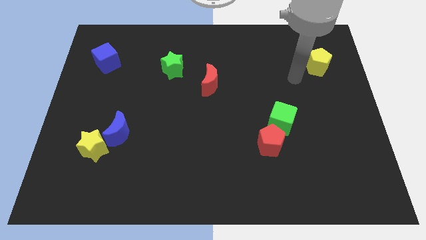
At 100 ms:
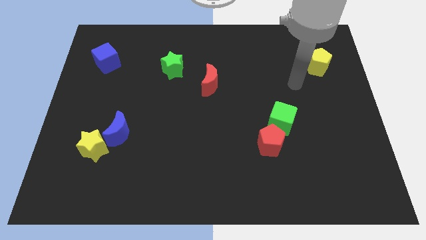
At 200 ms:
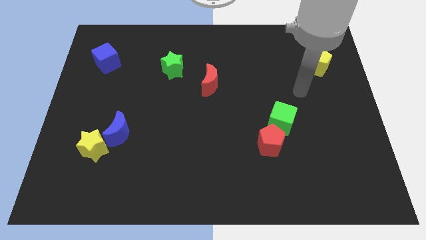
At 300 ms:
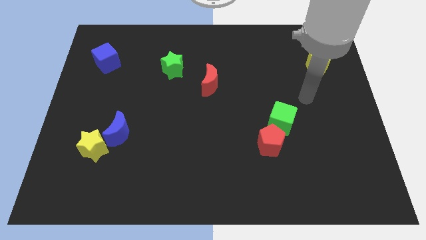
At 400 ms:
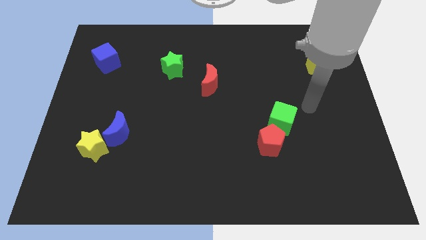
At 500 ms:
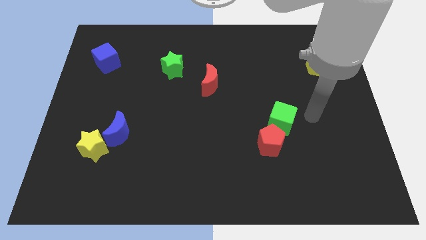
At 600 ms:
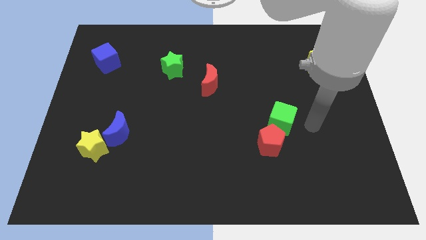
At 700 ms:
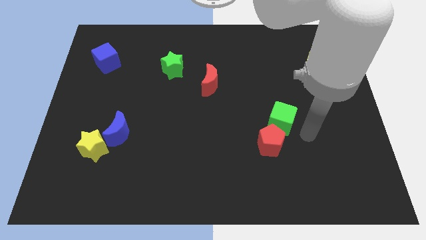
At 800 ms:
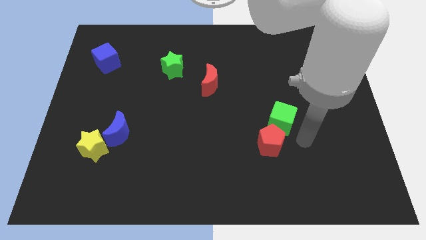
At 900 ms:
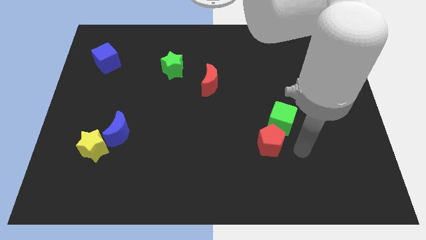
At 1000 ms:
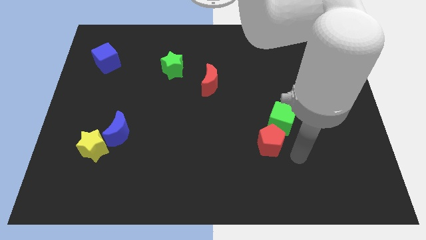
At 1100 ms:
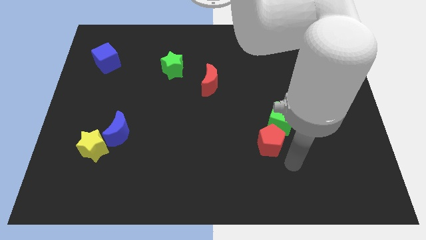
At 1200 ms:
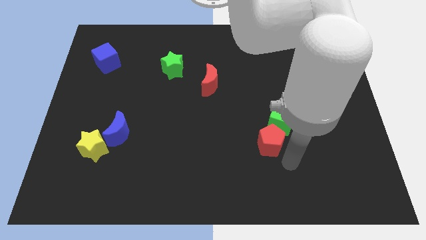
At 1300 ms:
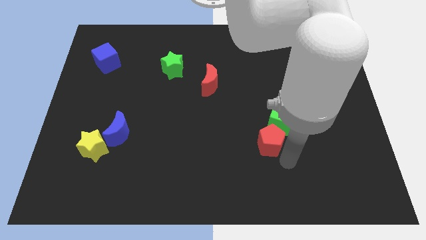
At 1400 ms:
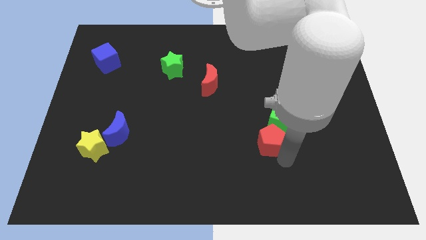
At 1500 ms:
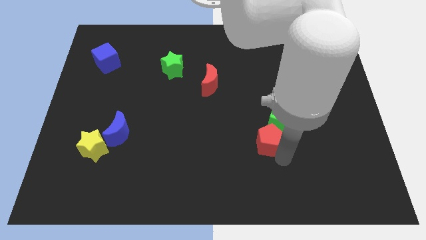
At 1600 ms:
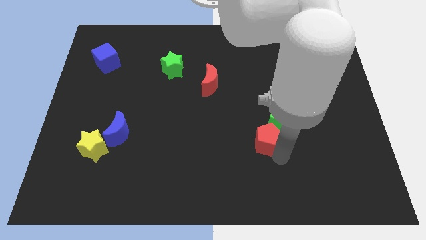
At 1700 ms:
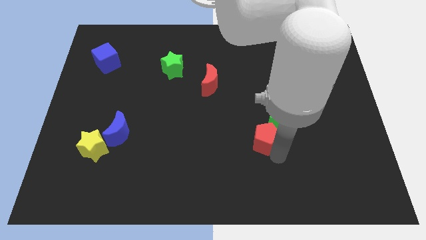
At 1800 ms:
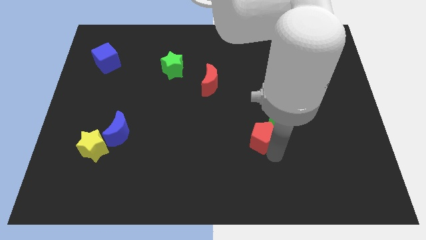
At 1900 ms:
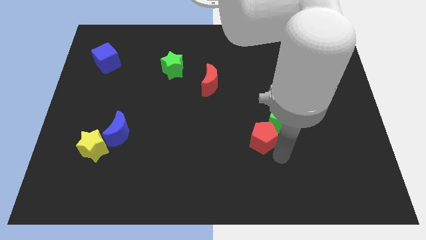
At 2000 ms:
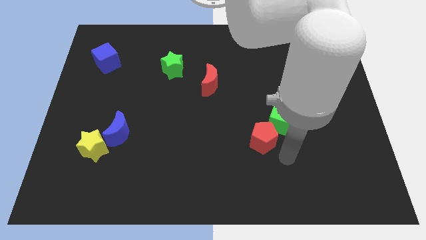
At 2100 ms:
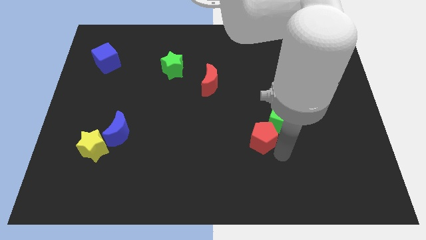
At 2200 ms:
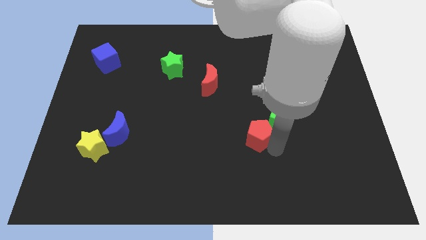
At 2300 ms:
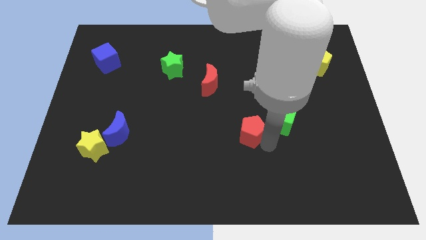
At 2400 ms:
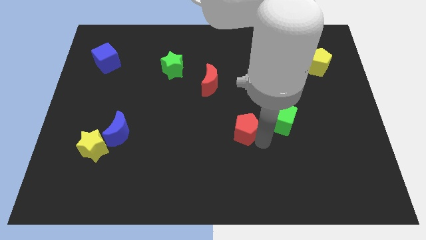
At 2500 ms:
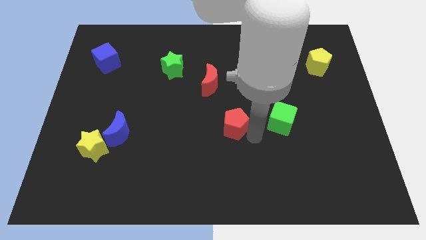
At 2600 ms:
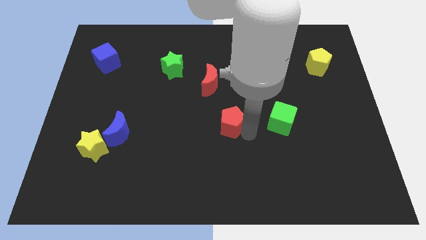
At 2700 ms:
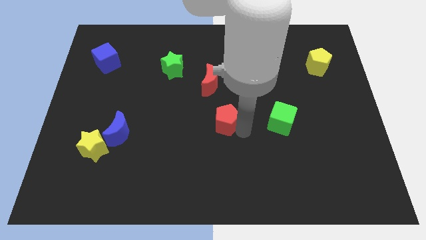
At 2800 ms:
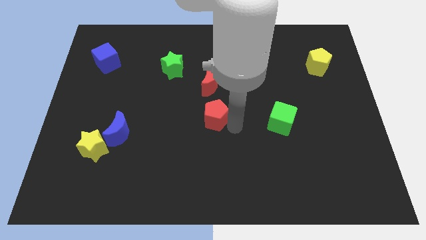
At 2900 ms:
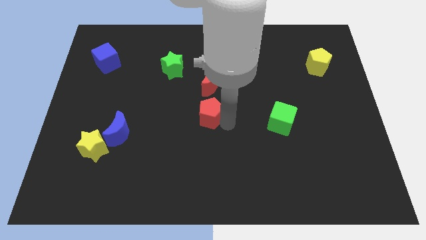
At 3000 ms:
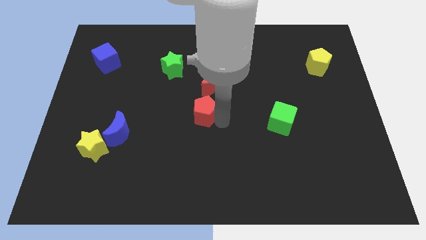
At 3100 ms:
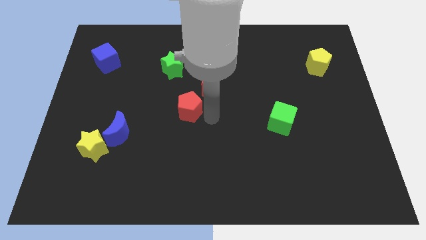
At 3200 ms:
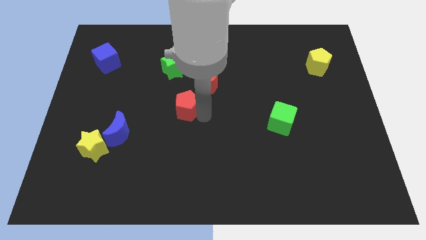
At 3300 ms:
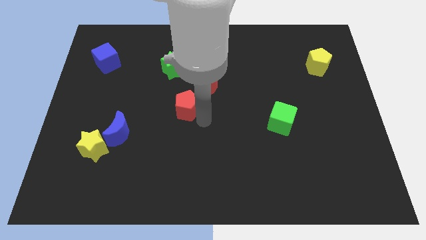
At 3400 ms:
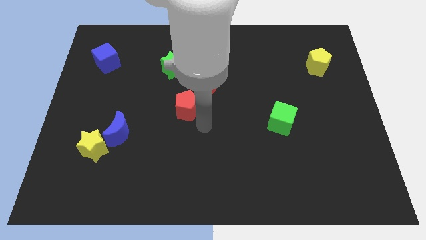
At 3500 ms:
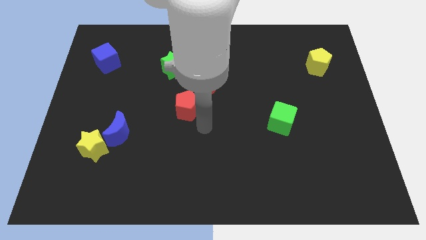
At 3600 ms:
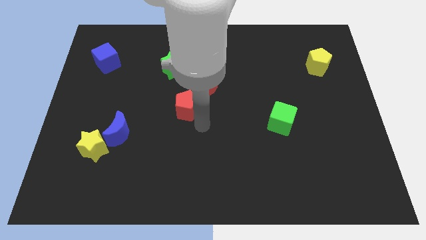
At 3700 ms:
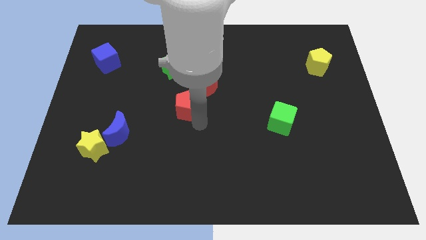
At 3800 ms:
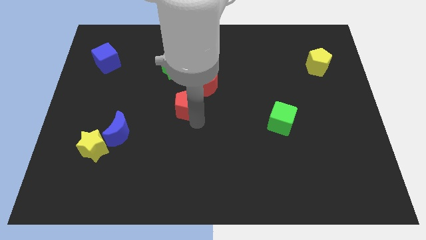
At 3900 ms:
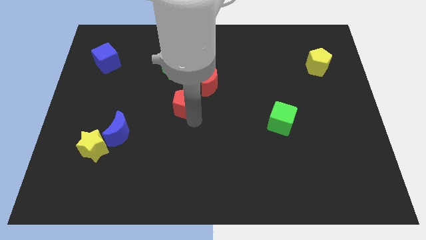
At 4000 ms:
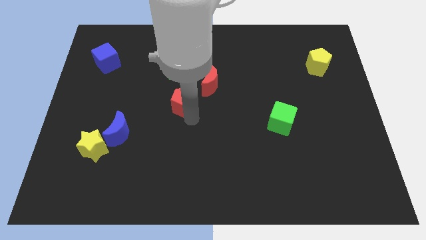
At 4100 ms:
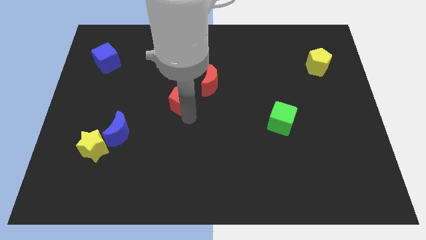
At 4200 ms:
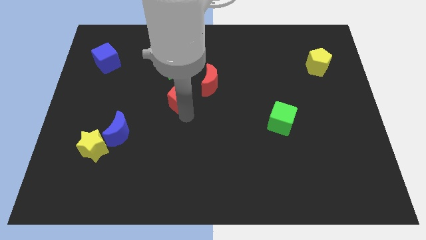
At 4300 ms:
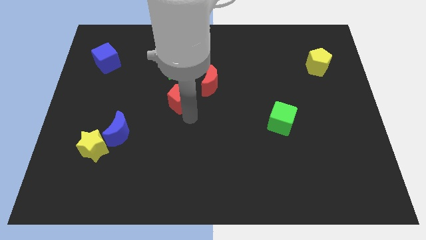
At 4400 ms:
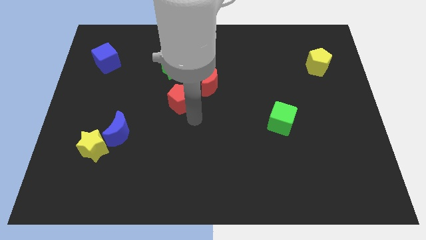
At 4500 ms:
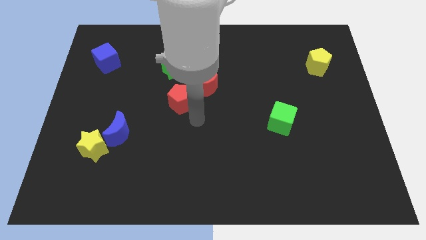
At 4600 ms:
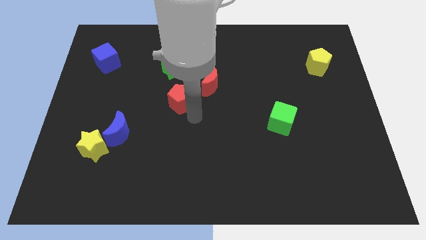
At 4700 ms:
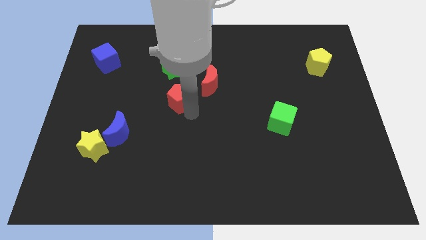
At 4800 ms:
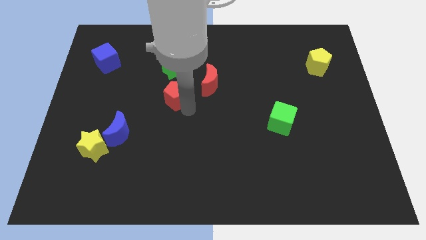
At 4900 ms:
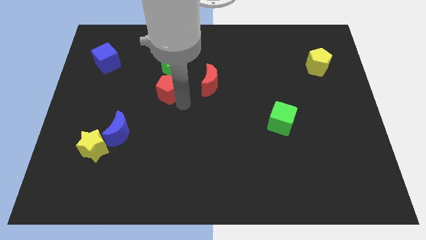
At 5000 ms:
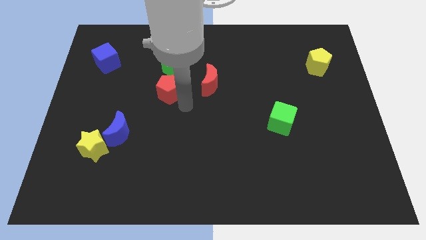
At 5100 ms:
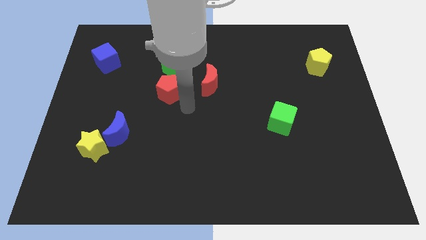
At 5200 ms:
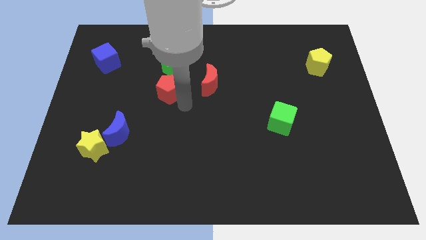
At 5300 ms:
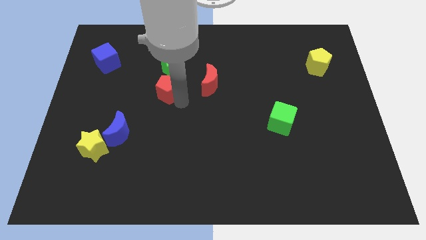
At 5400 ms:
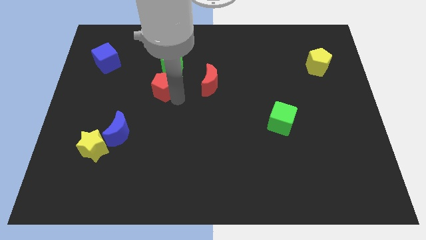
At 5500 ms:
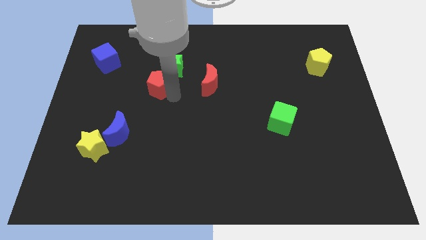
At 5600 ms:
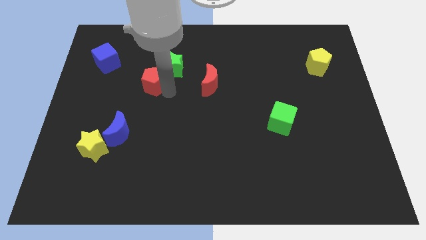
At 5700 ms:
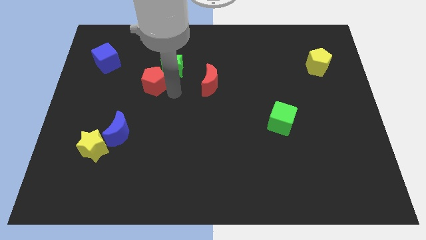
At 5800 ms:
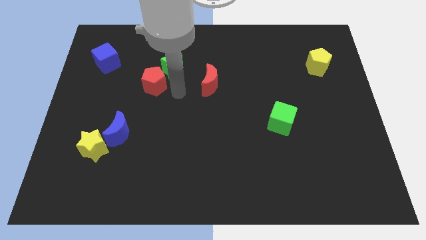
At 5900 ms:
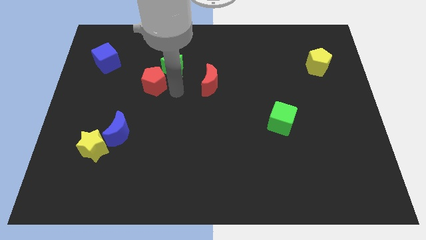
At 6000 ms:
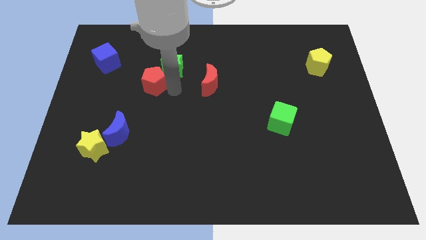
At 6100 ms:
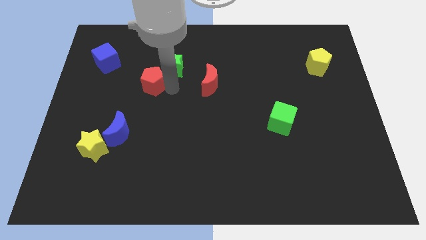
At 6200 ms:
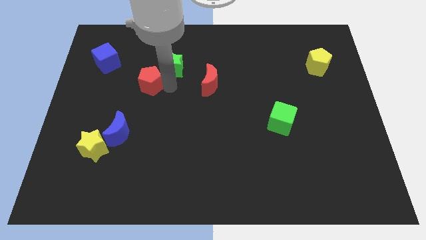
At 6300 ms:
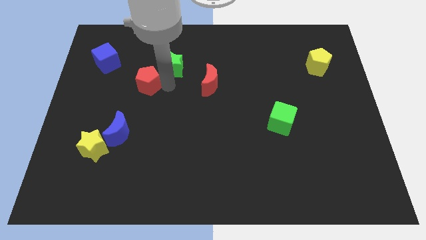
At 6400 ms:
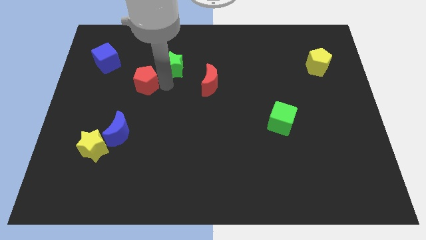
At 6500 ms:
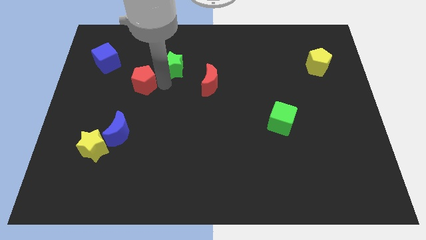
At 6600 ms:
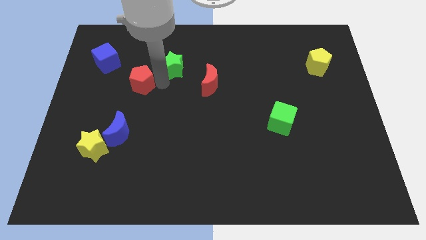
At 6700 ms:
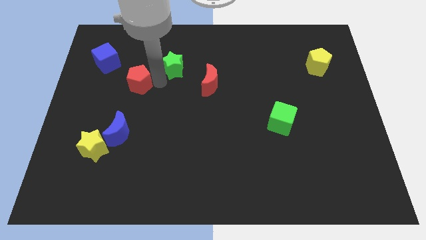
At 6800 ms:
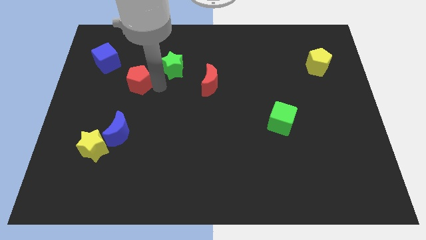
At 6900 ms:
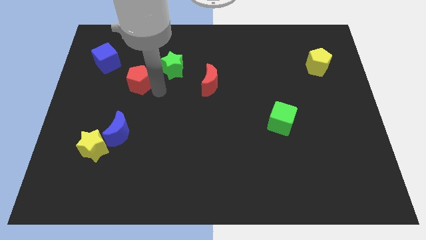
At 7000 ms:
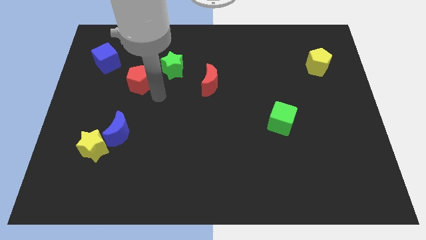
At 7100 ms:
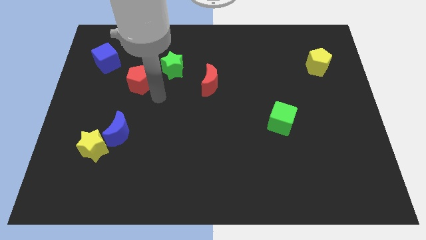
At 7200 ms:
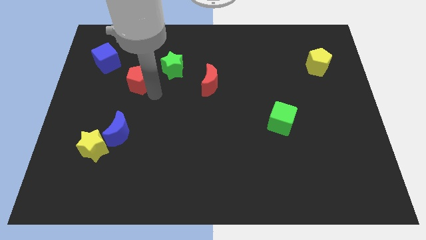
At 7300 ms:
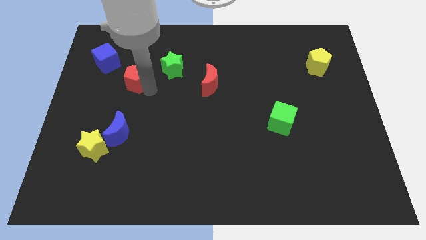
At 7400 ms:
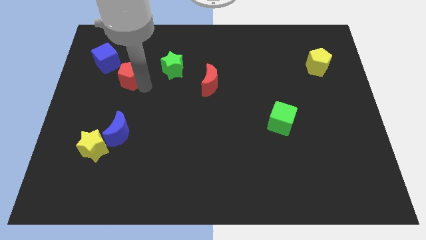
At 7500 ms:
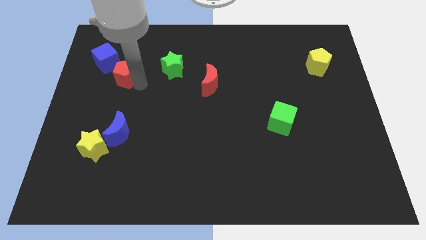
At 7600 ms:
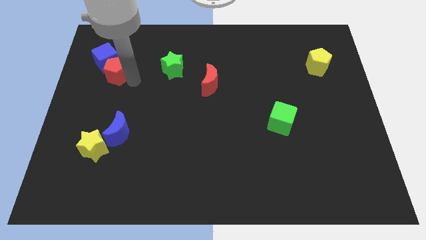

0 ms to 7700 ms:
slide the red pentagon next to the blue cube

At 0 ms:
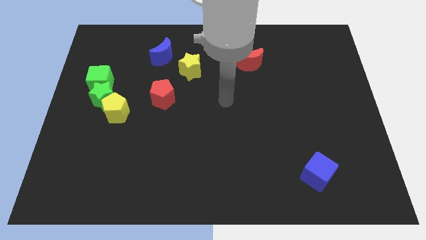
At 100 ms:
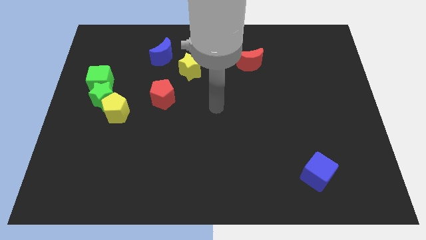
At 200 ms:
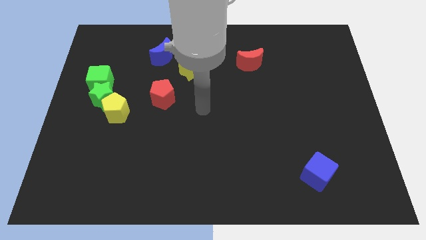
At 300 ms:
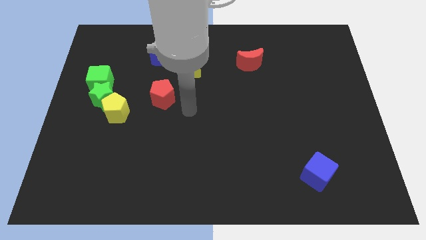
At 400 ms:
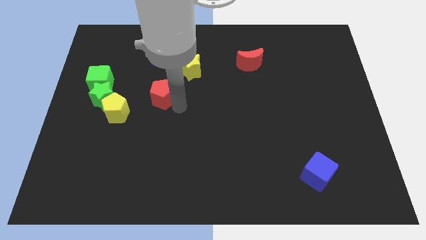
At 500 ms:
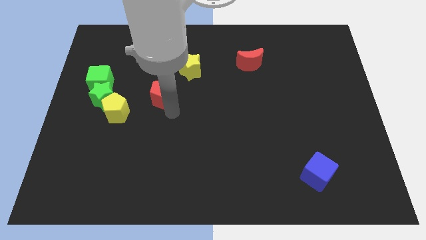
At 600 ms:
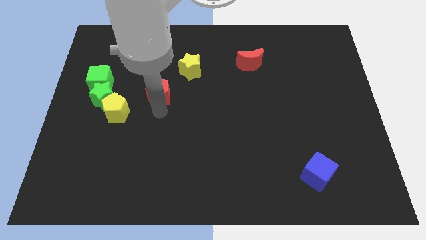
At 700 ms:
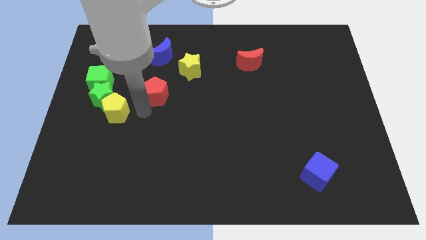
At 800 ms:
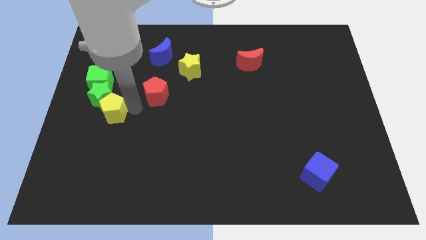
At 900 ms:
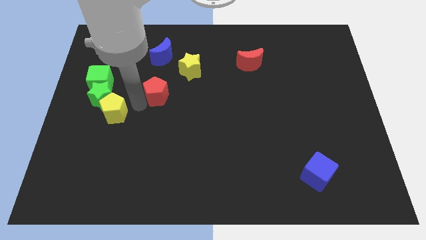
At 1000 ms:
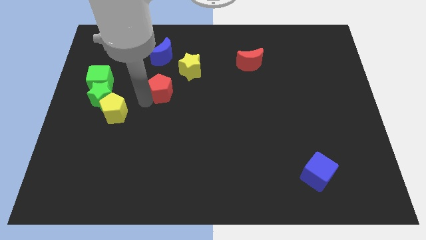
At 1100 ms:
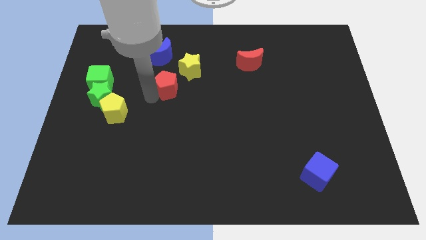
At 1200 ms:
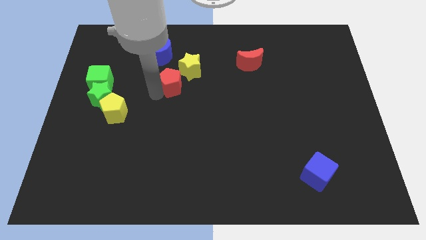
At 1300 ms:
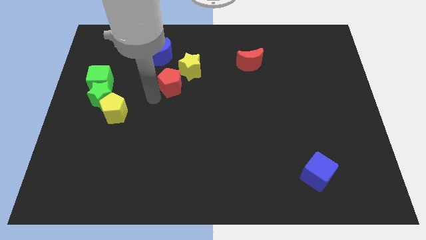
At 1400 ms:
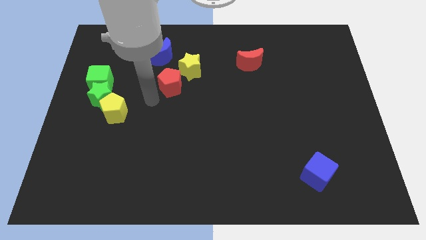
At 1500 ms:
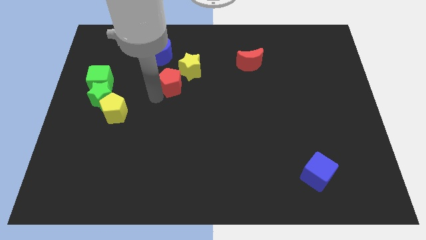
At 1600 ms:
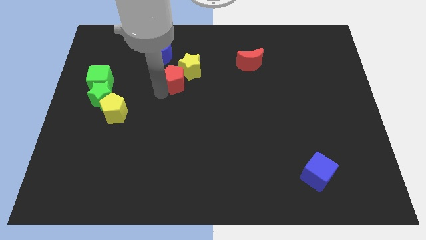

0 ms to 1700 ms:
move the red pentagon towards the yellow star
